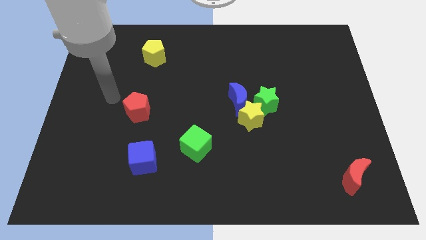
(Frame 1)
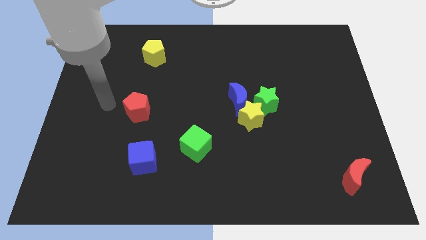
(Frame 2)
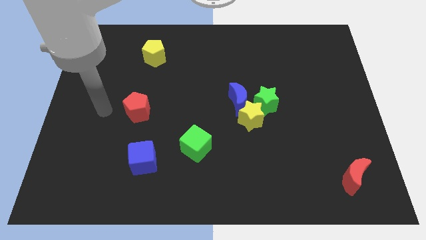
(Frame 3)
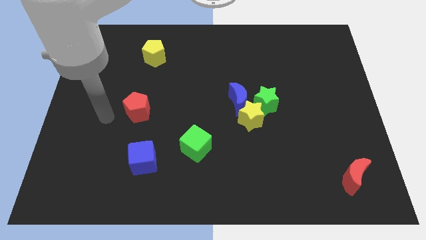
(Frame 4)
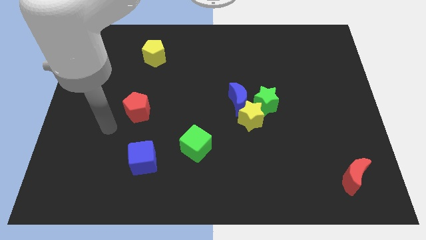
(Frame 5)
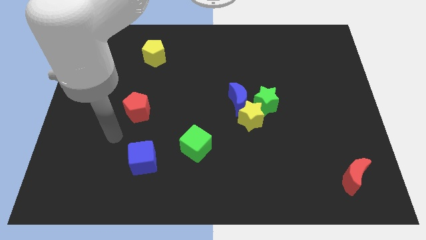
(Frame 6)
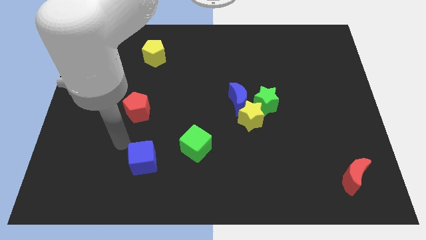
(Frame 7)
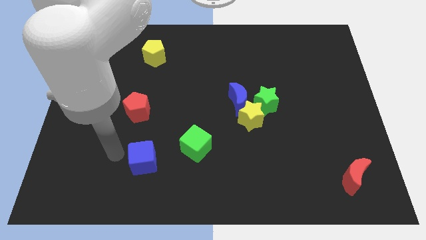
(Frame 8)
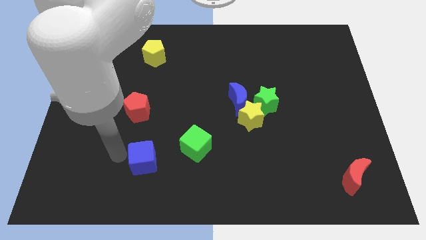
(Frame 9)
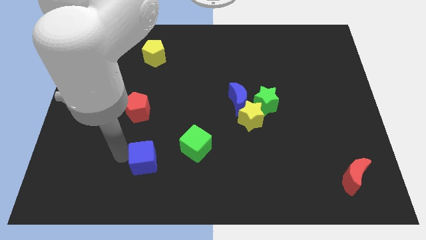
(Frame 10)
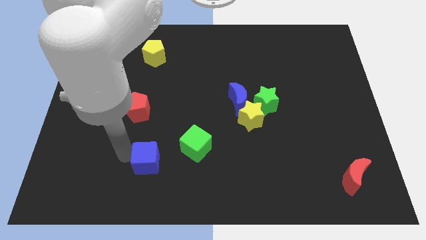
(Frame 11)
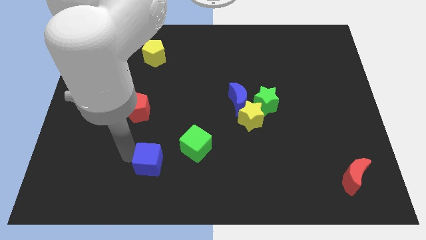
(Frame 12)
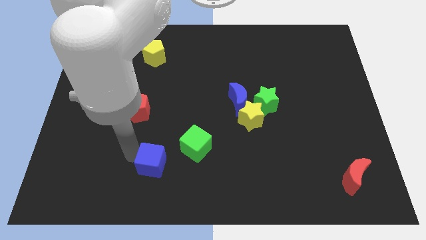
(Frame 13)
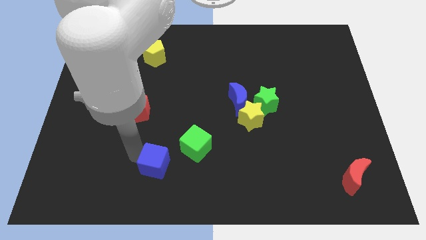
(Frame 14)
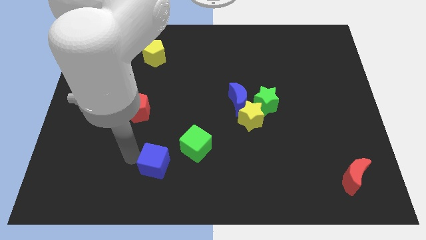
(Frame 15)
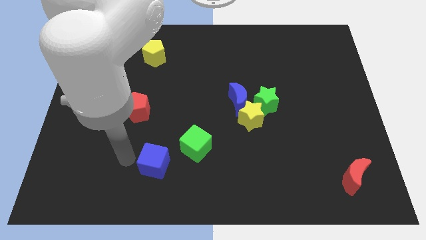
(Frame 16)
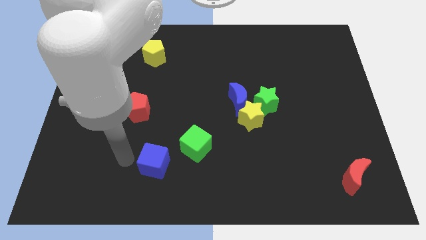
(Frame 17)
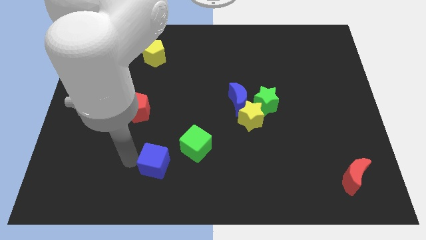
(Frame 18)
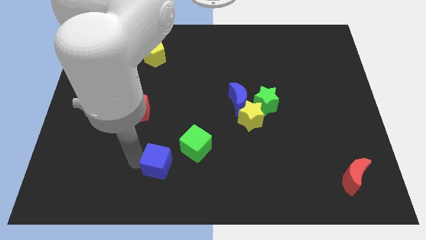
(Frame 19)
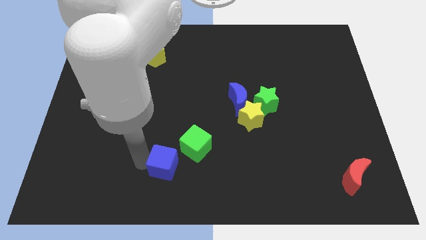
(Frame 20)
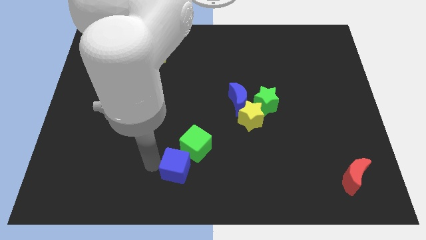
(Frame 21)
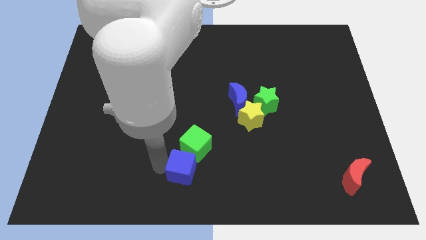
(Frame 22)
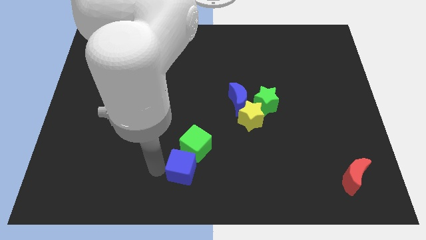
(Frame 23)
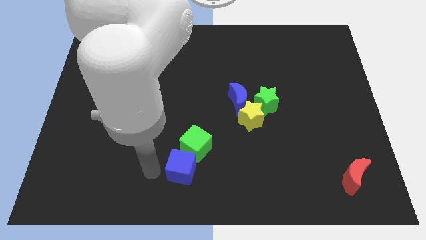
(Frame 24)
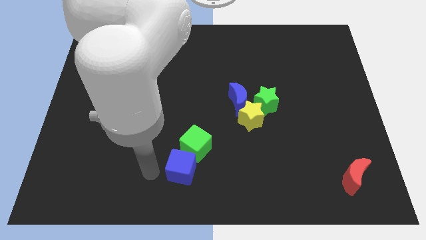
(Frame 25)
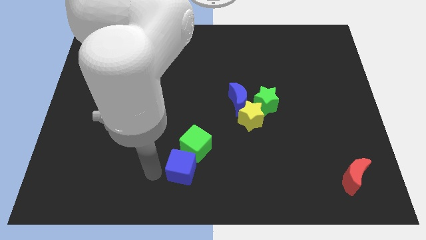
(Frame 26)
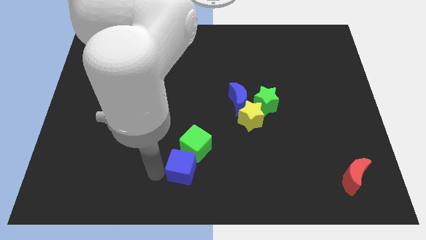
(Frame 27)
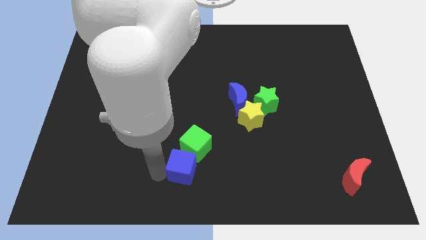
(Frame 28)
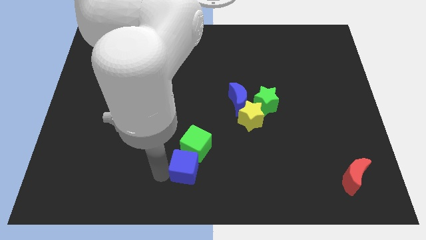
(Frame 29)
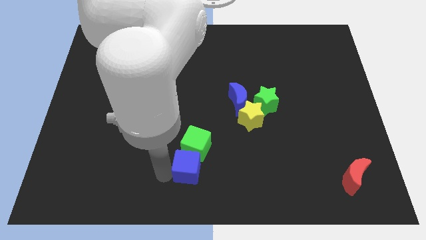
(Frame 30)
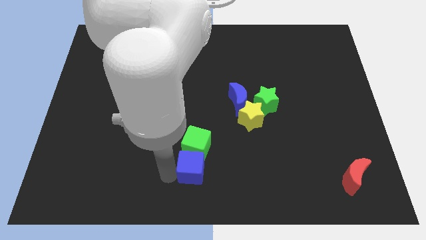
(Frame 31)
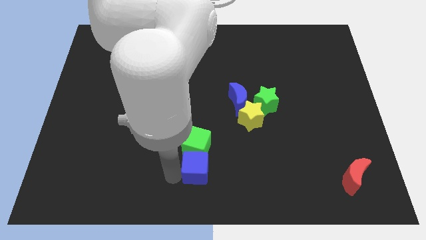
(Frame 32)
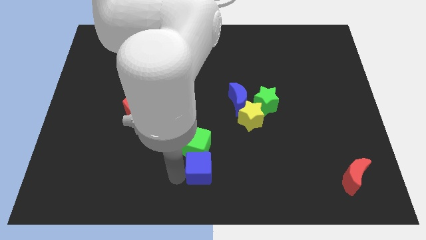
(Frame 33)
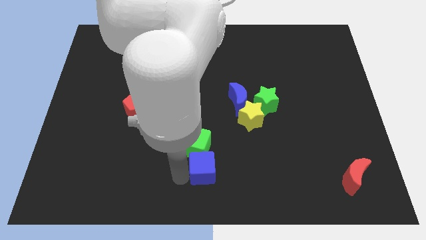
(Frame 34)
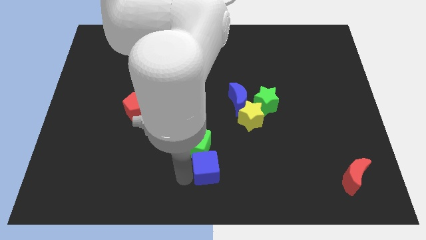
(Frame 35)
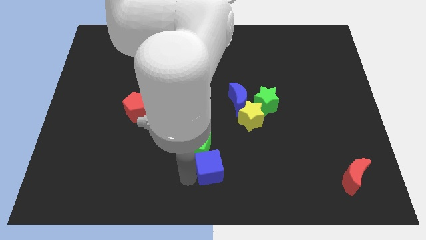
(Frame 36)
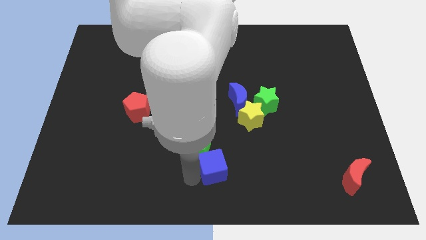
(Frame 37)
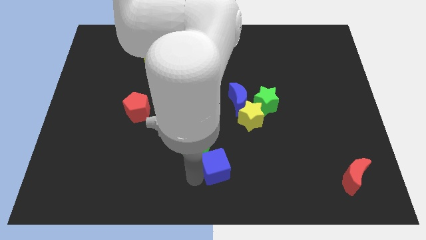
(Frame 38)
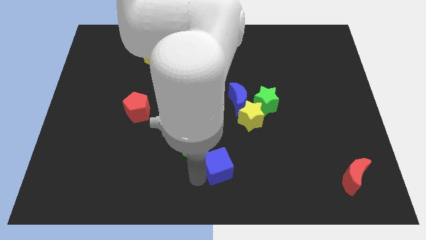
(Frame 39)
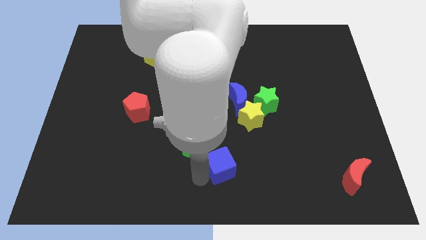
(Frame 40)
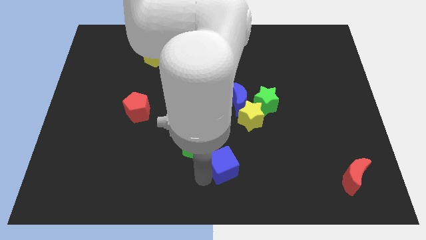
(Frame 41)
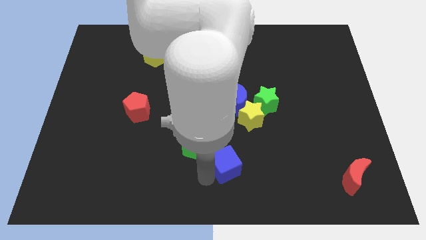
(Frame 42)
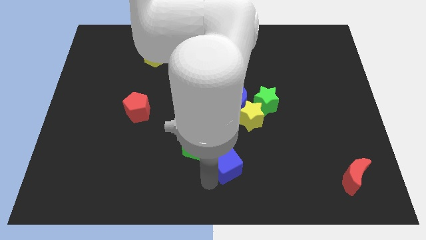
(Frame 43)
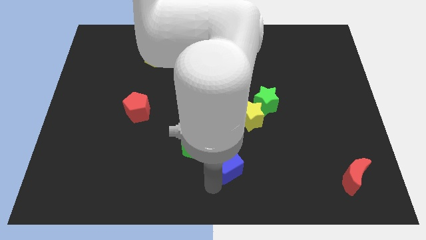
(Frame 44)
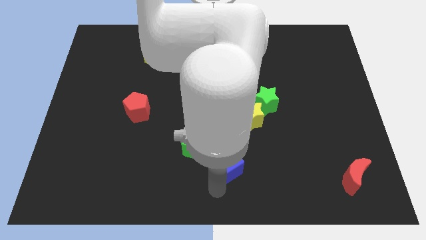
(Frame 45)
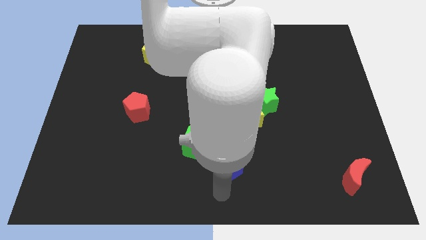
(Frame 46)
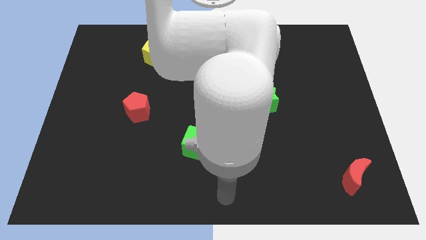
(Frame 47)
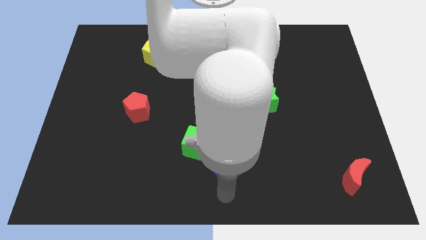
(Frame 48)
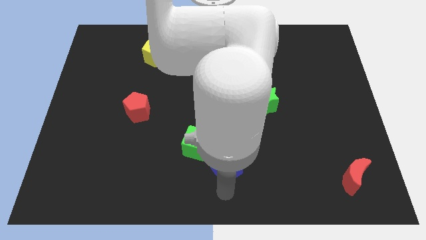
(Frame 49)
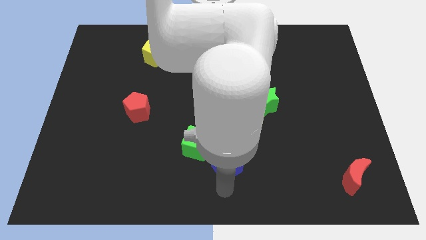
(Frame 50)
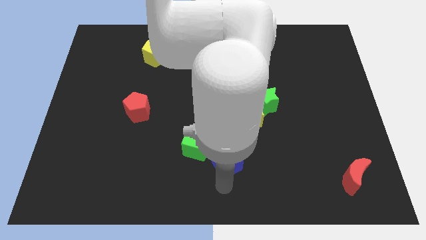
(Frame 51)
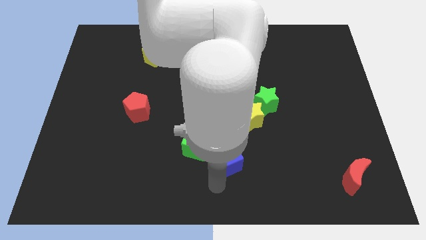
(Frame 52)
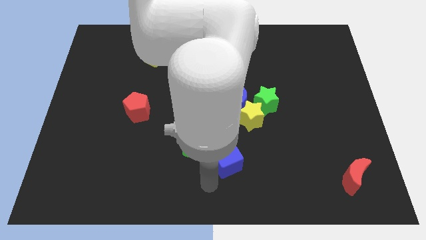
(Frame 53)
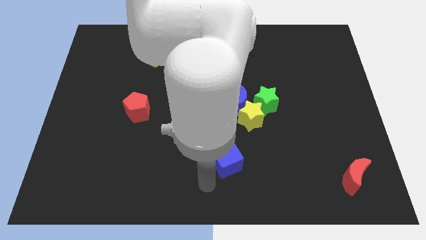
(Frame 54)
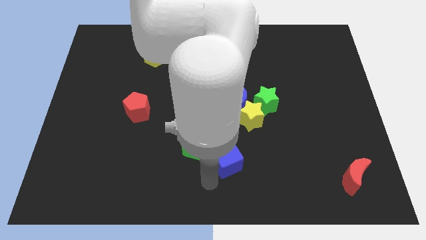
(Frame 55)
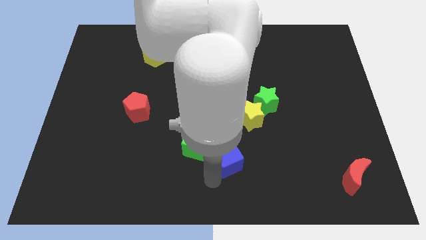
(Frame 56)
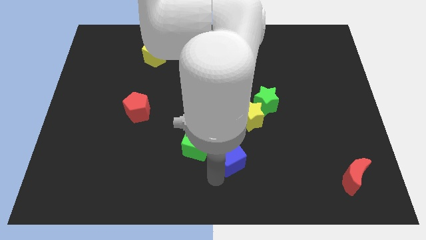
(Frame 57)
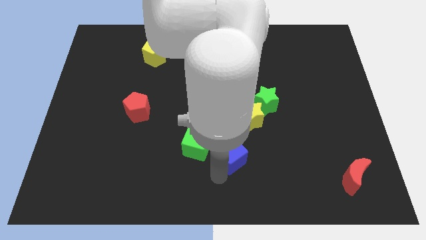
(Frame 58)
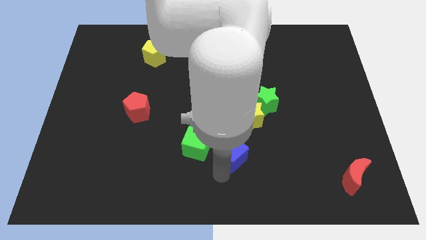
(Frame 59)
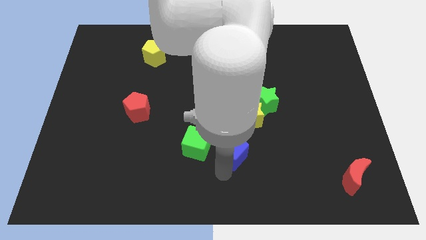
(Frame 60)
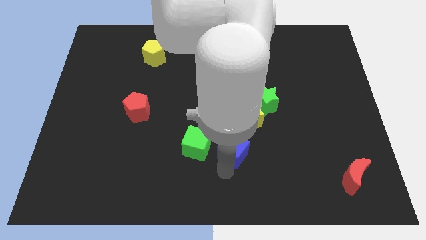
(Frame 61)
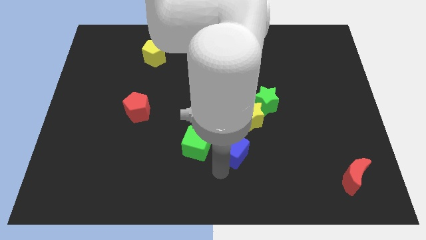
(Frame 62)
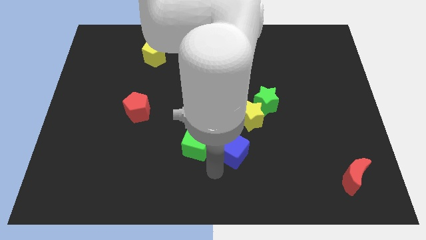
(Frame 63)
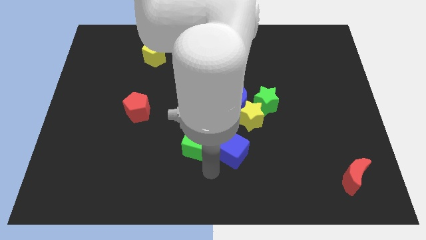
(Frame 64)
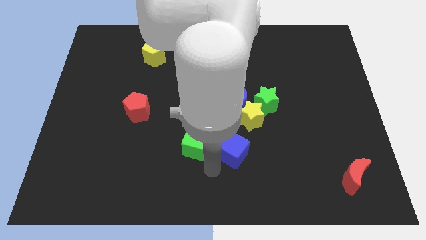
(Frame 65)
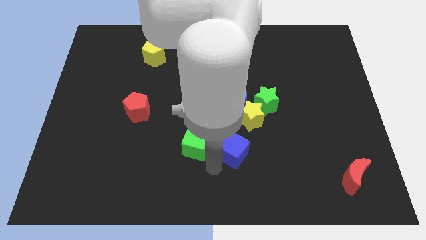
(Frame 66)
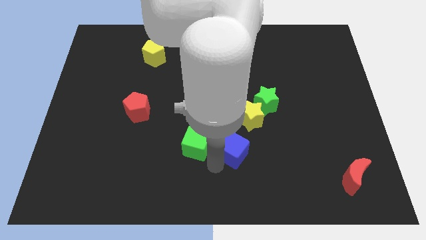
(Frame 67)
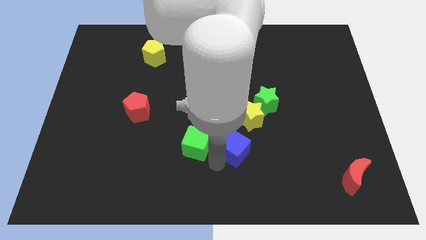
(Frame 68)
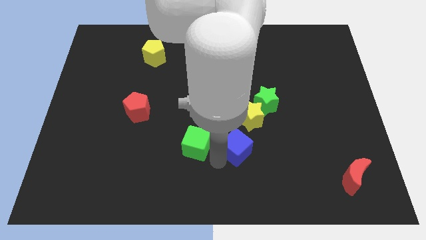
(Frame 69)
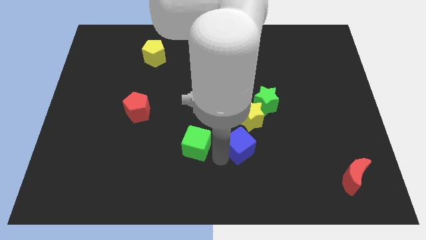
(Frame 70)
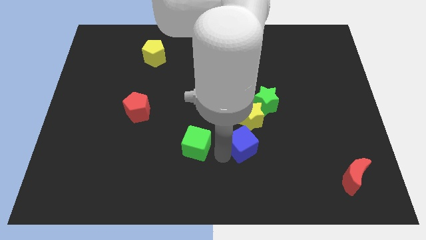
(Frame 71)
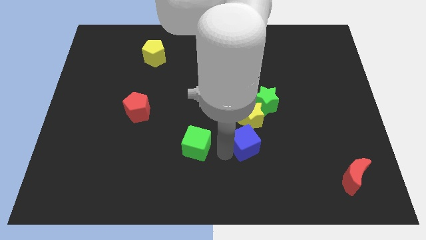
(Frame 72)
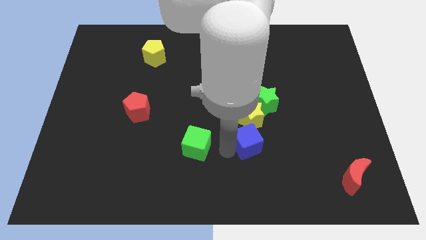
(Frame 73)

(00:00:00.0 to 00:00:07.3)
push the blue cube to the bottom side of the green star
